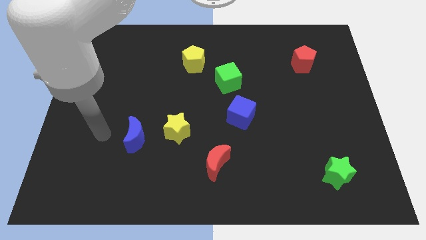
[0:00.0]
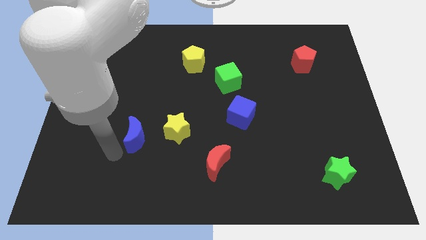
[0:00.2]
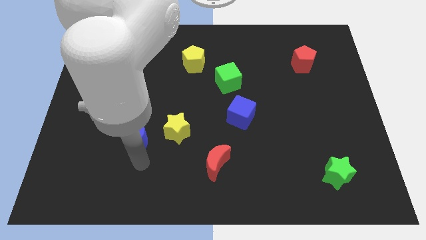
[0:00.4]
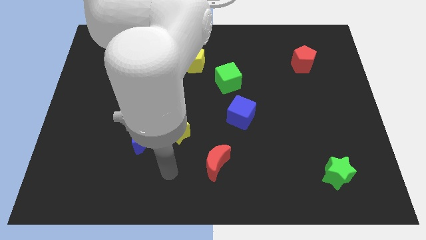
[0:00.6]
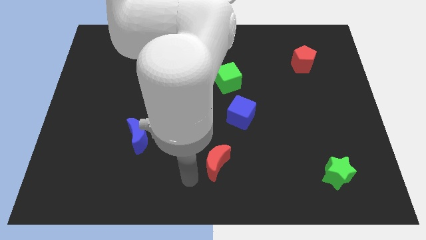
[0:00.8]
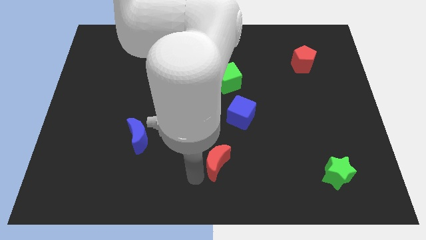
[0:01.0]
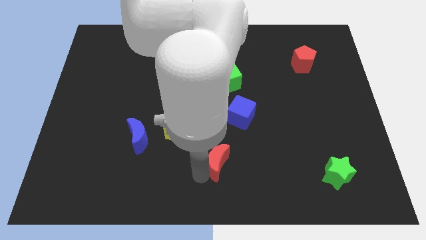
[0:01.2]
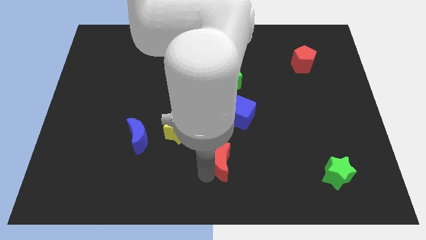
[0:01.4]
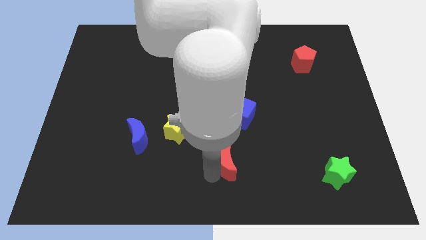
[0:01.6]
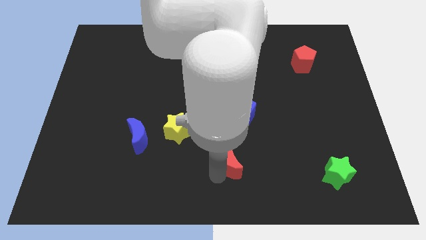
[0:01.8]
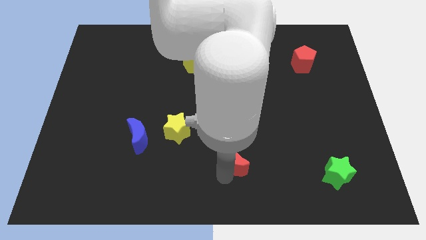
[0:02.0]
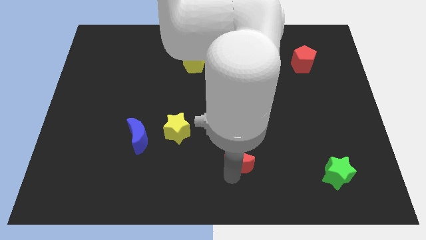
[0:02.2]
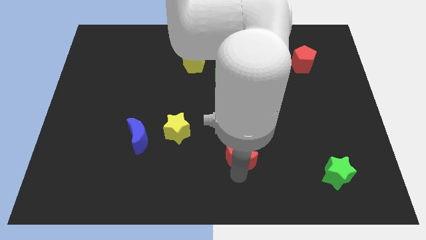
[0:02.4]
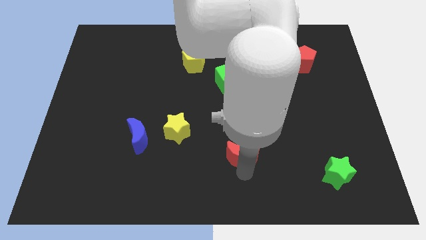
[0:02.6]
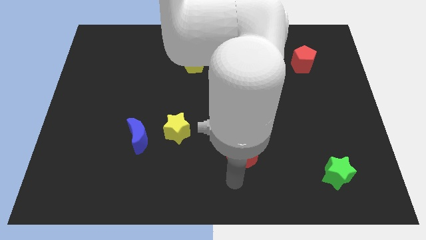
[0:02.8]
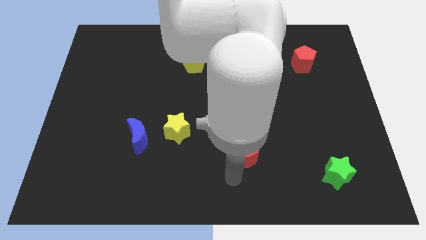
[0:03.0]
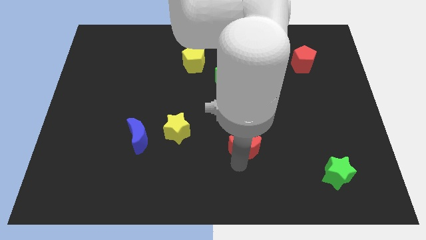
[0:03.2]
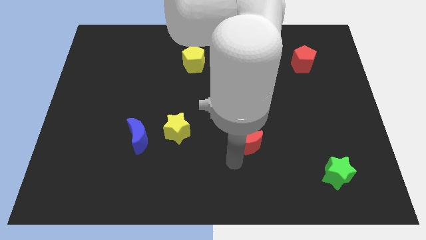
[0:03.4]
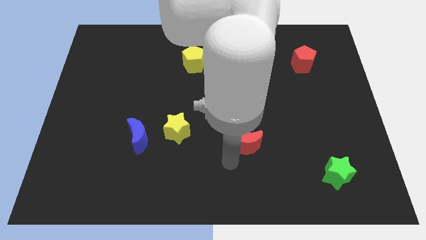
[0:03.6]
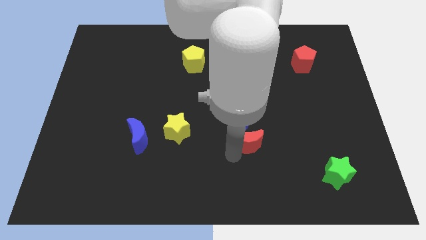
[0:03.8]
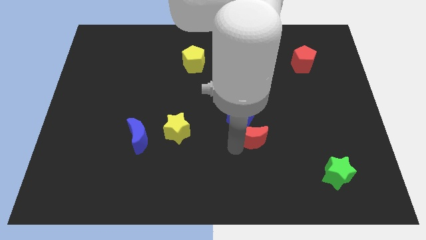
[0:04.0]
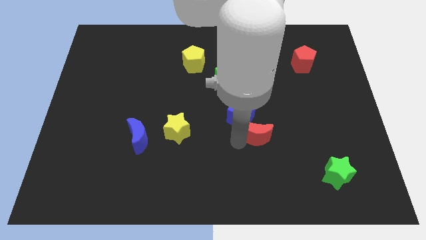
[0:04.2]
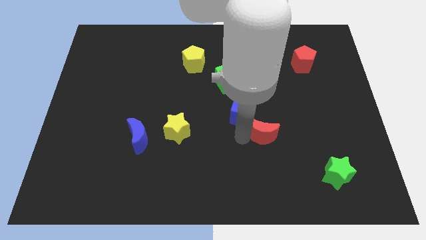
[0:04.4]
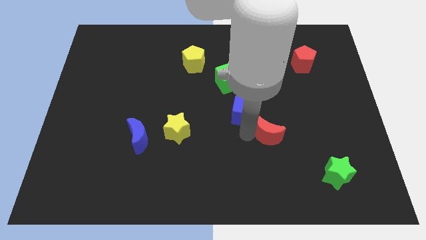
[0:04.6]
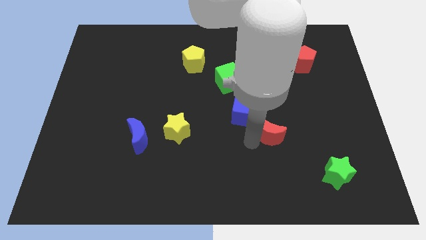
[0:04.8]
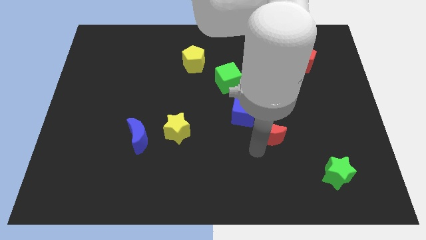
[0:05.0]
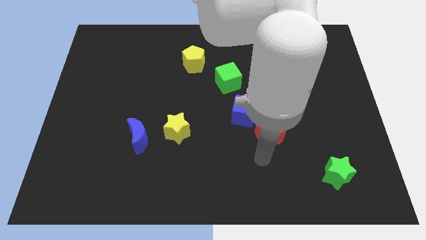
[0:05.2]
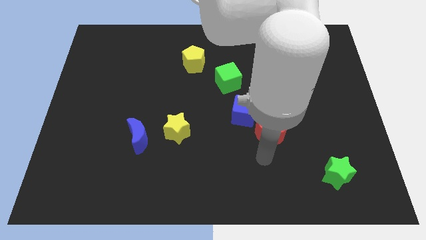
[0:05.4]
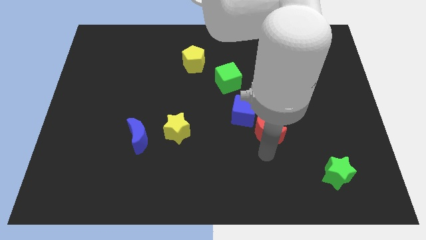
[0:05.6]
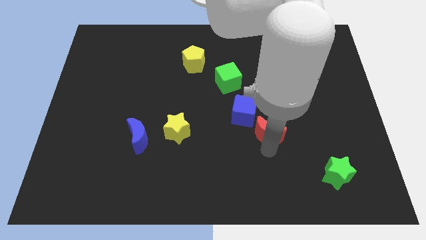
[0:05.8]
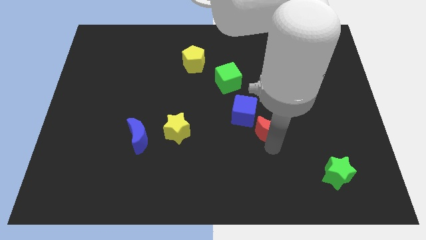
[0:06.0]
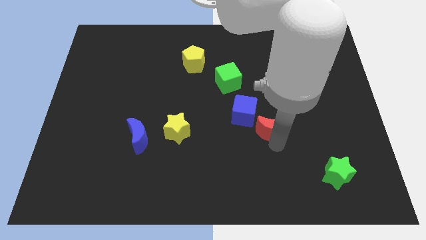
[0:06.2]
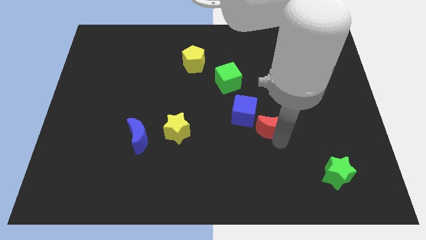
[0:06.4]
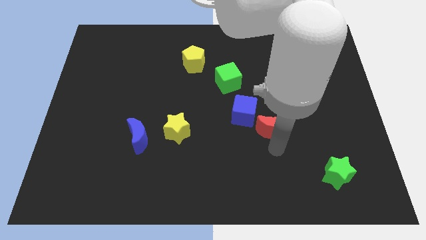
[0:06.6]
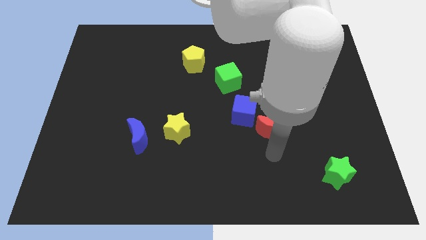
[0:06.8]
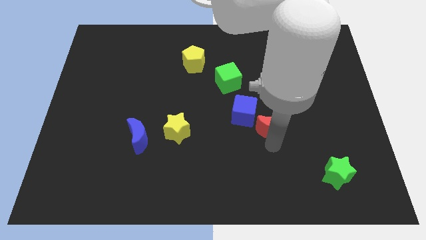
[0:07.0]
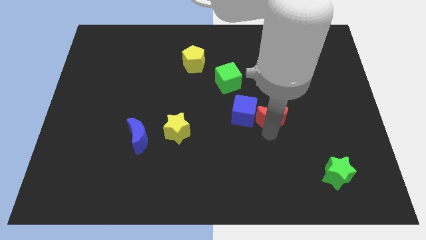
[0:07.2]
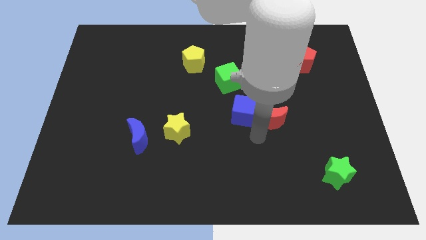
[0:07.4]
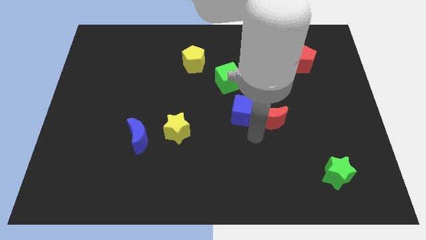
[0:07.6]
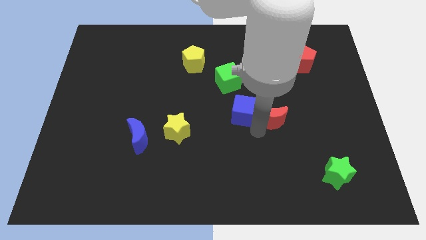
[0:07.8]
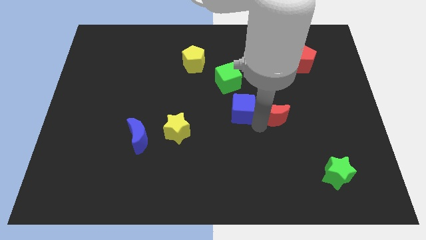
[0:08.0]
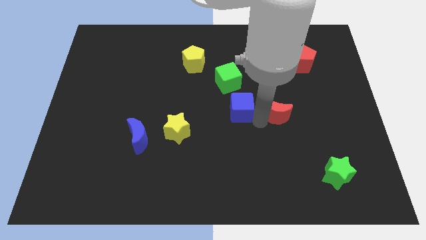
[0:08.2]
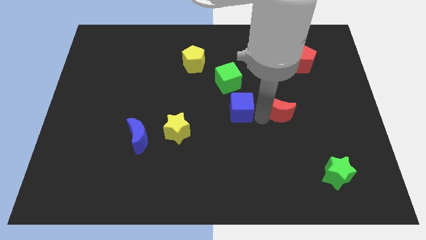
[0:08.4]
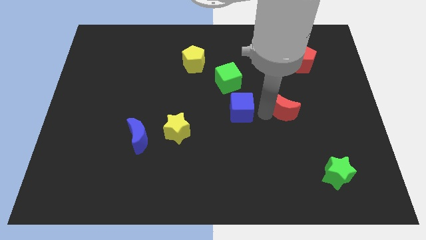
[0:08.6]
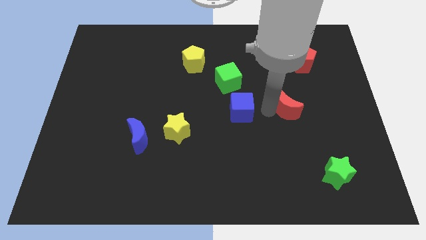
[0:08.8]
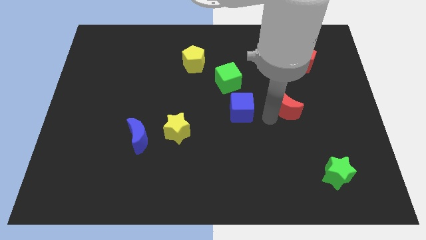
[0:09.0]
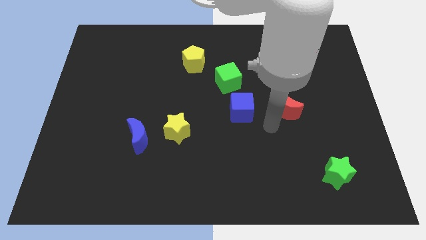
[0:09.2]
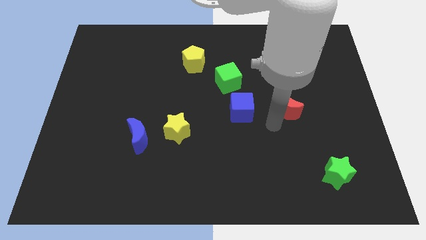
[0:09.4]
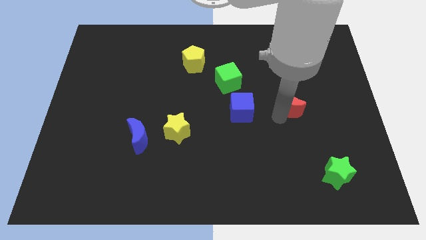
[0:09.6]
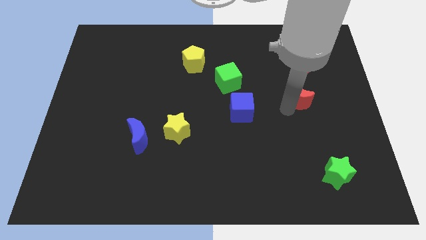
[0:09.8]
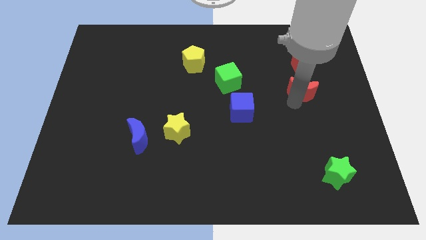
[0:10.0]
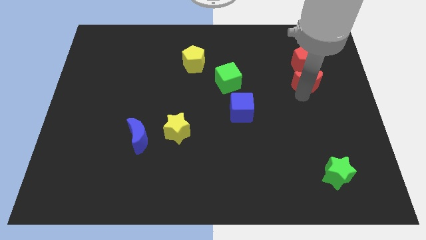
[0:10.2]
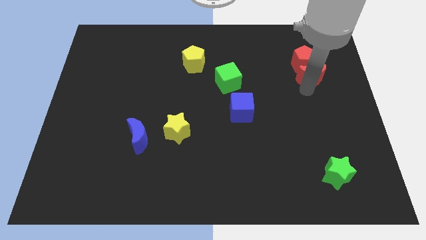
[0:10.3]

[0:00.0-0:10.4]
move the red moon close to the red pentagon
